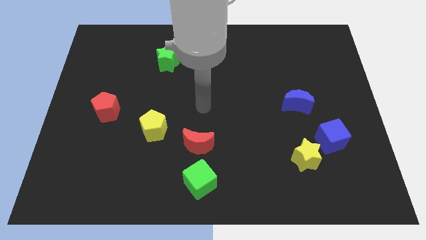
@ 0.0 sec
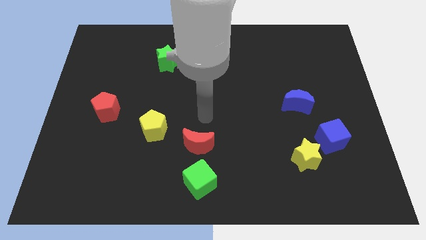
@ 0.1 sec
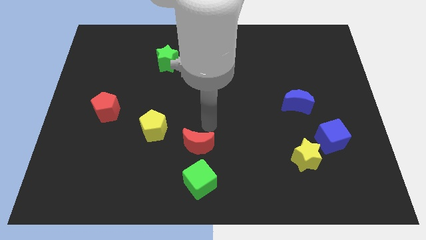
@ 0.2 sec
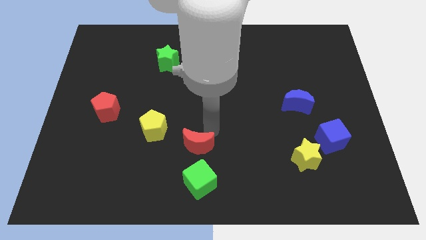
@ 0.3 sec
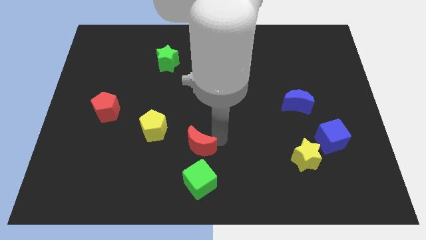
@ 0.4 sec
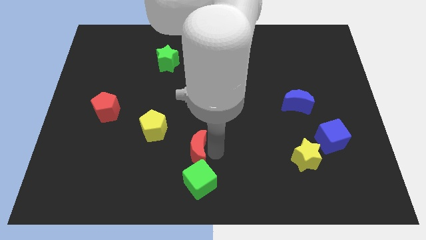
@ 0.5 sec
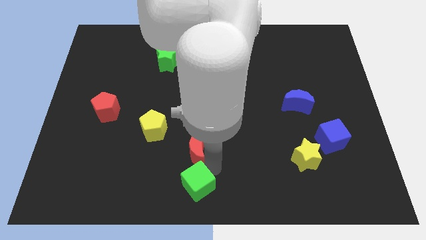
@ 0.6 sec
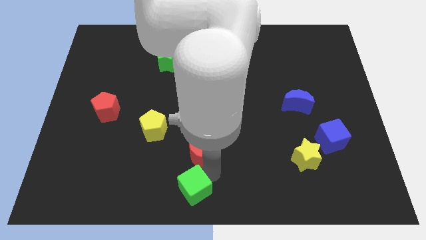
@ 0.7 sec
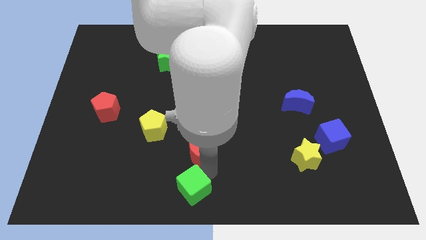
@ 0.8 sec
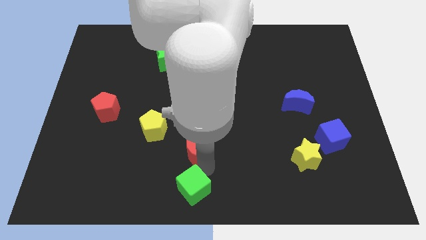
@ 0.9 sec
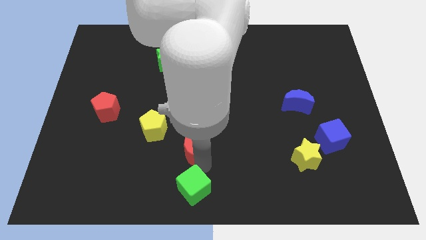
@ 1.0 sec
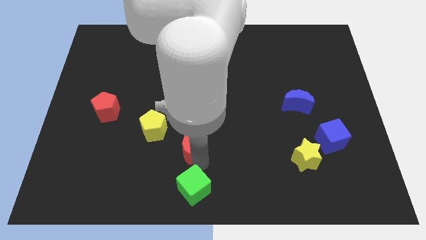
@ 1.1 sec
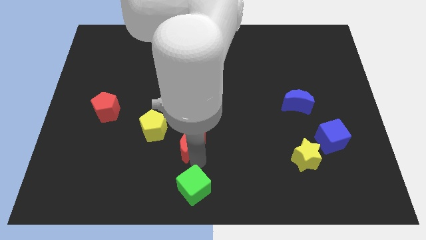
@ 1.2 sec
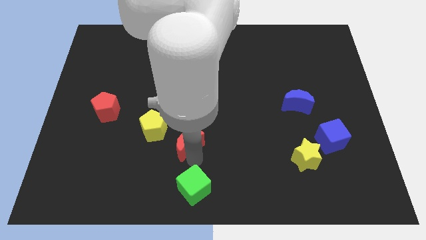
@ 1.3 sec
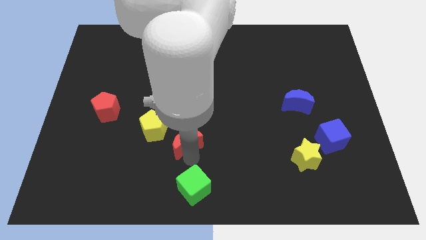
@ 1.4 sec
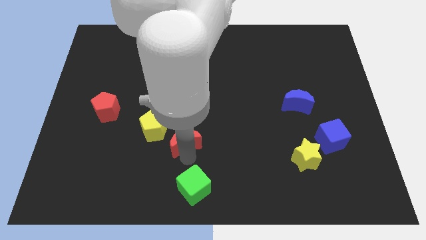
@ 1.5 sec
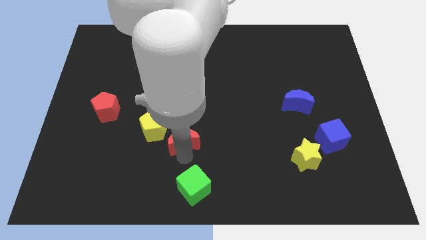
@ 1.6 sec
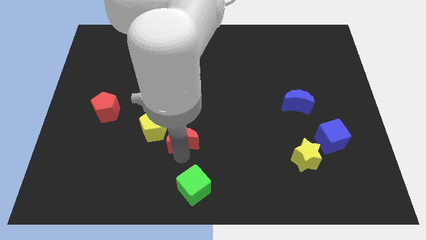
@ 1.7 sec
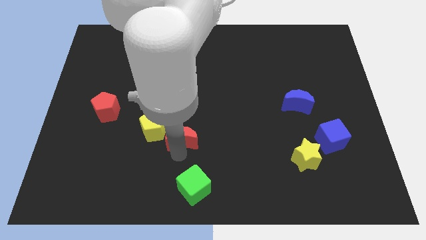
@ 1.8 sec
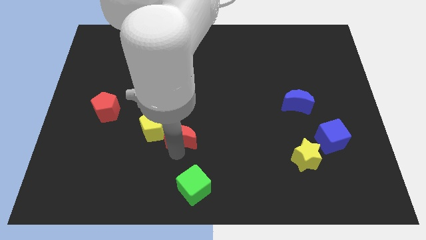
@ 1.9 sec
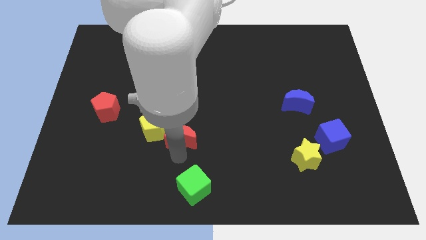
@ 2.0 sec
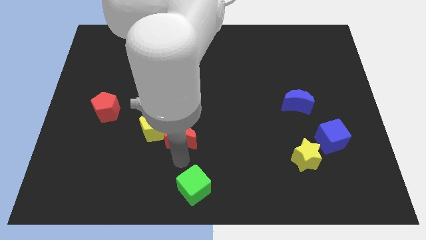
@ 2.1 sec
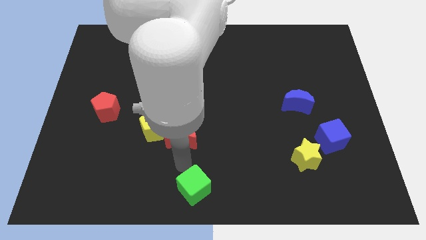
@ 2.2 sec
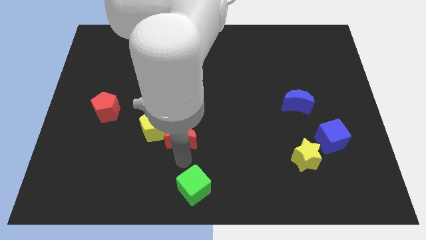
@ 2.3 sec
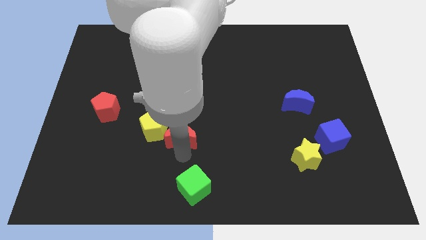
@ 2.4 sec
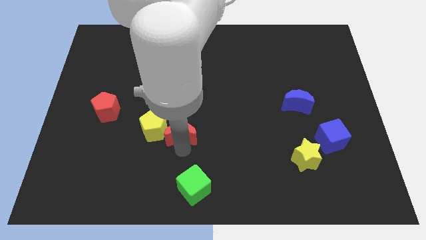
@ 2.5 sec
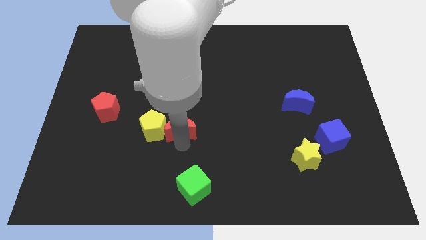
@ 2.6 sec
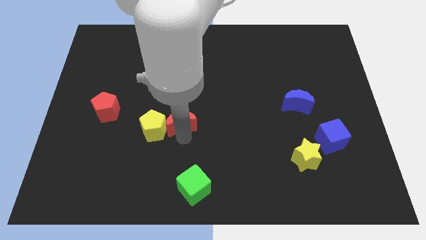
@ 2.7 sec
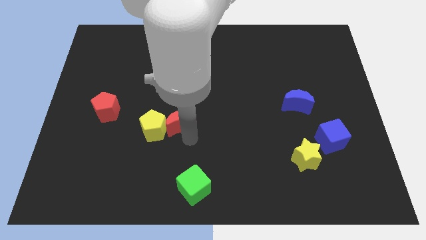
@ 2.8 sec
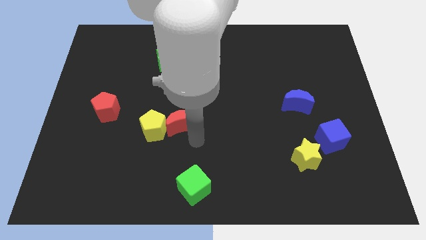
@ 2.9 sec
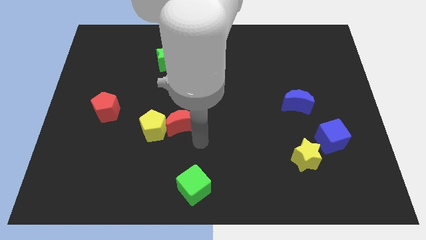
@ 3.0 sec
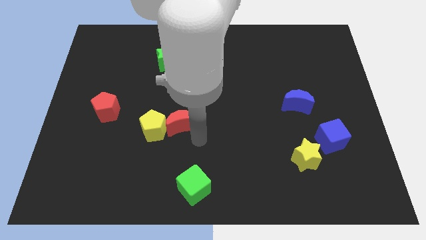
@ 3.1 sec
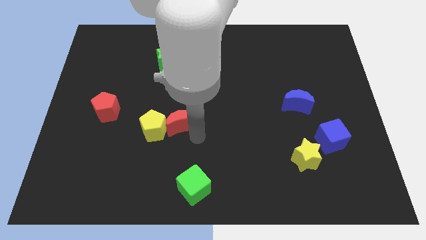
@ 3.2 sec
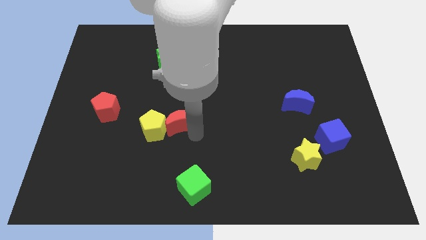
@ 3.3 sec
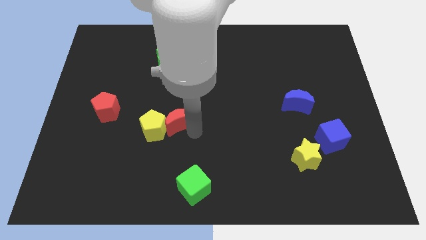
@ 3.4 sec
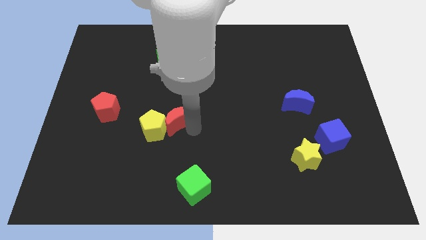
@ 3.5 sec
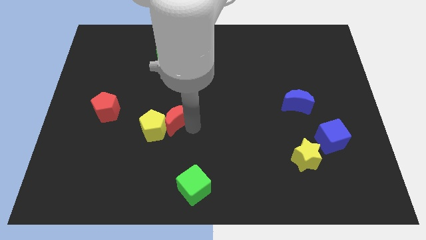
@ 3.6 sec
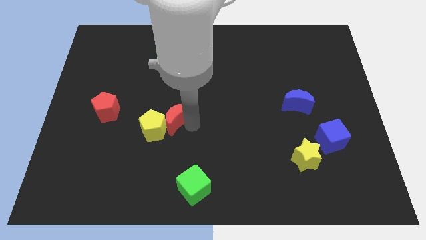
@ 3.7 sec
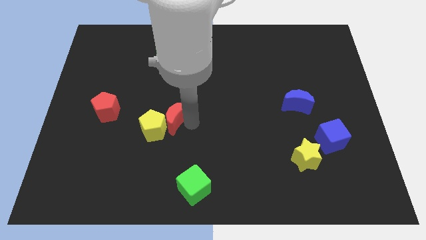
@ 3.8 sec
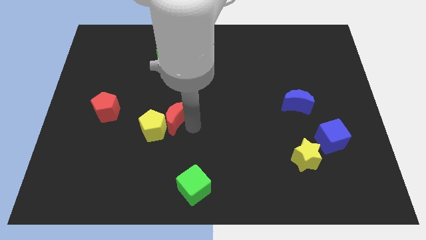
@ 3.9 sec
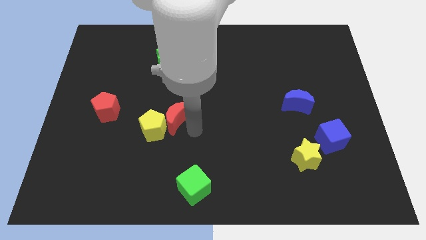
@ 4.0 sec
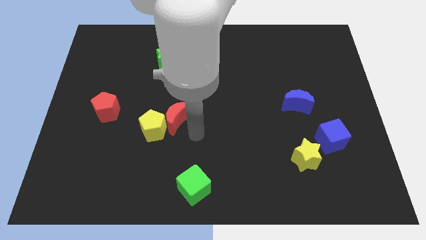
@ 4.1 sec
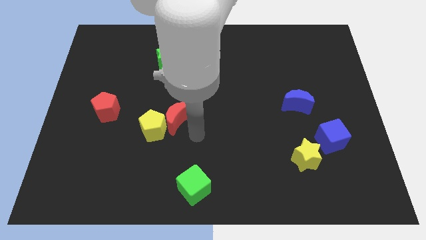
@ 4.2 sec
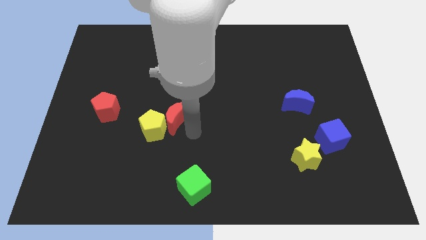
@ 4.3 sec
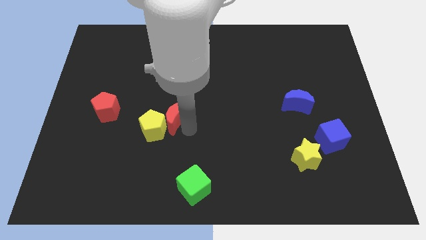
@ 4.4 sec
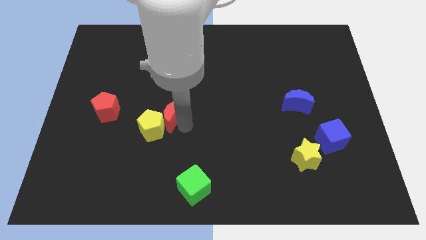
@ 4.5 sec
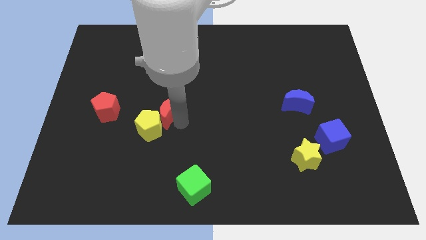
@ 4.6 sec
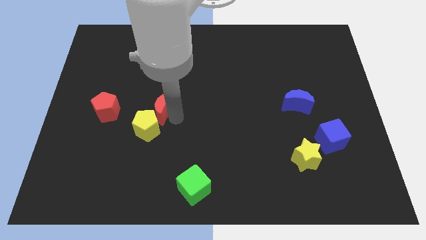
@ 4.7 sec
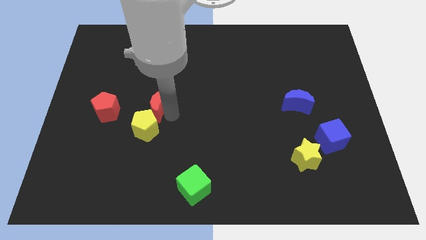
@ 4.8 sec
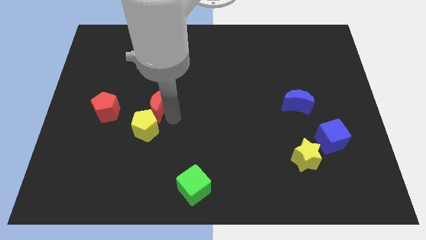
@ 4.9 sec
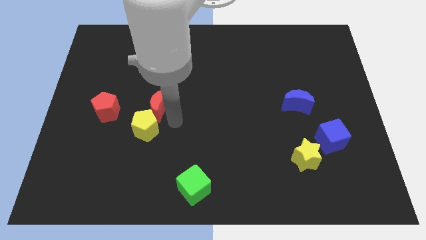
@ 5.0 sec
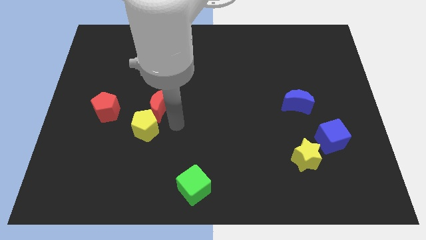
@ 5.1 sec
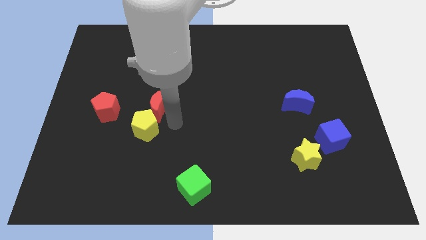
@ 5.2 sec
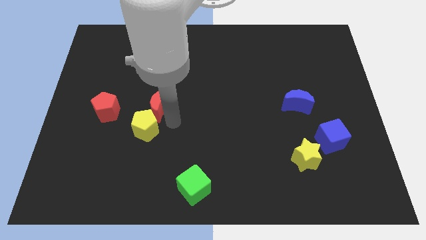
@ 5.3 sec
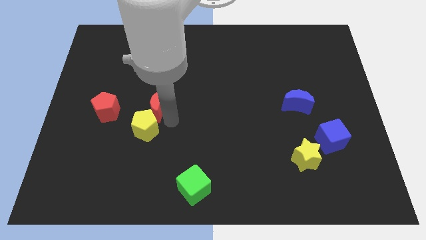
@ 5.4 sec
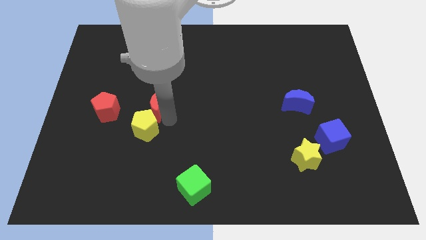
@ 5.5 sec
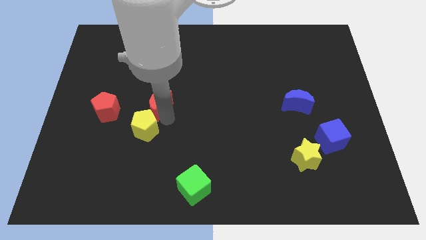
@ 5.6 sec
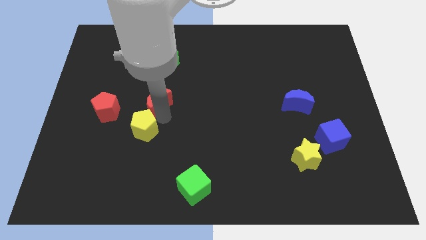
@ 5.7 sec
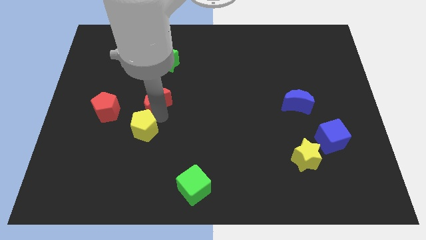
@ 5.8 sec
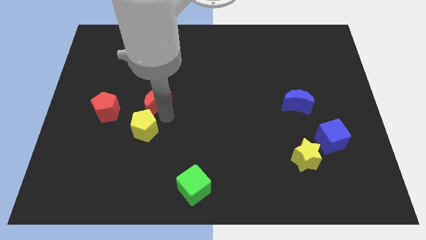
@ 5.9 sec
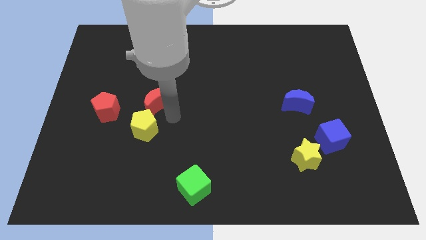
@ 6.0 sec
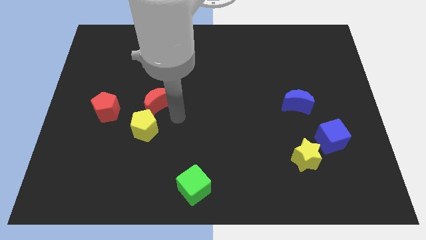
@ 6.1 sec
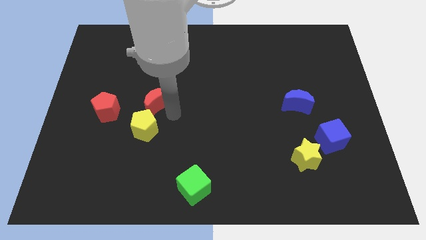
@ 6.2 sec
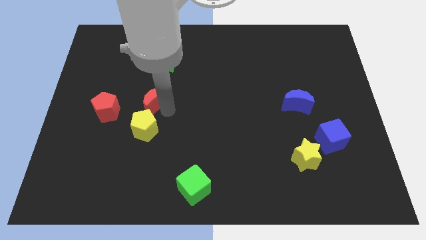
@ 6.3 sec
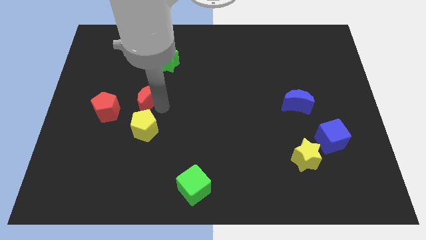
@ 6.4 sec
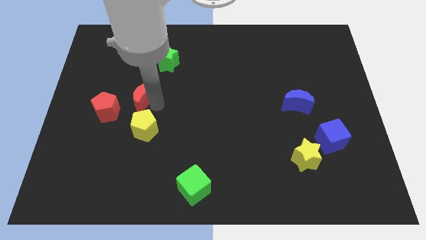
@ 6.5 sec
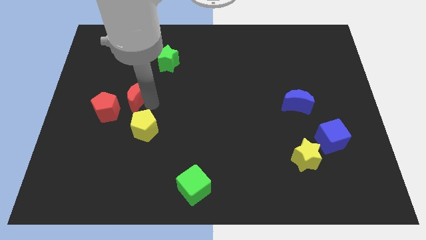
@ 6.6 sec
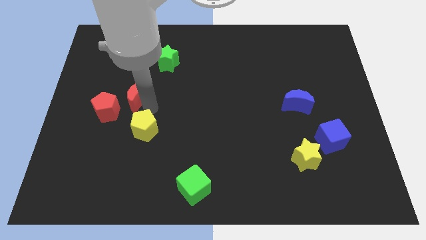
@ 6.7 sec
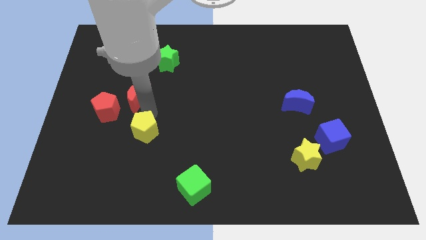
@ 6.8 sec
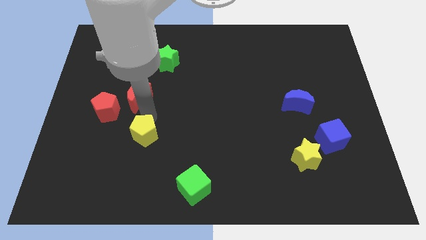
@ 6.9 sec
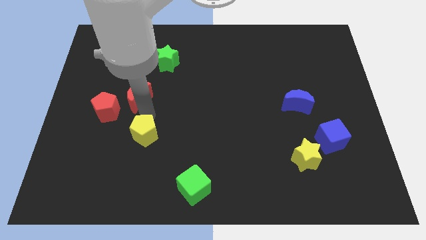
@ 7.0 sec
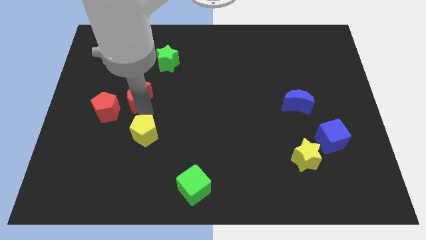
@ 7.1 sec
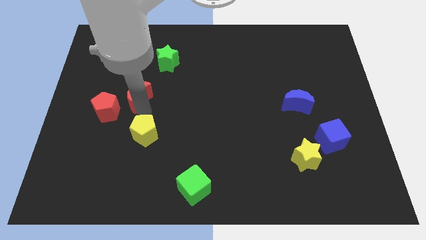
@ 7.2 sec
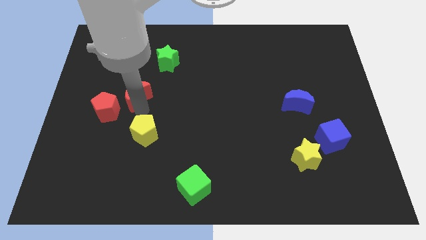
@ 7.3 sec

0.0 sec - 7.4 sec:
push the red moon diagonally up and left

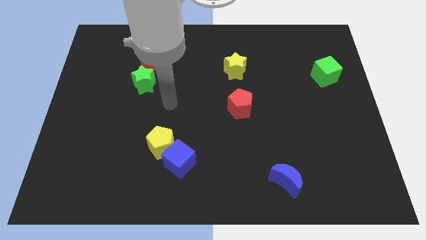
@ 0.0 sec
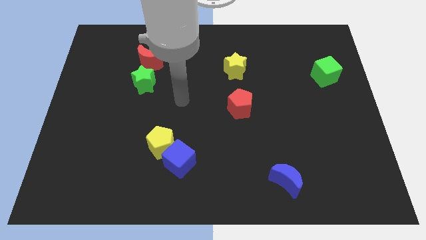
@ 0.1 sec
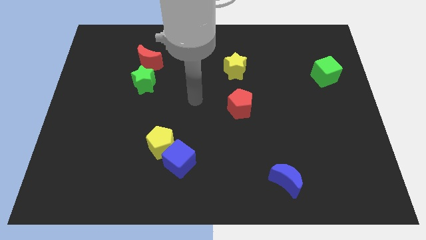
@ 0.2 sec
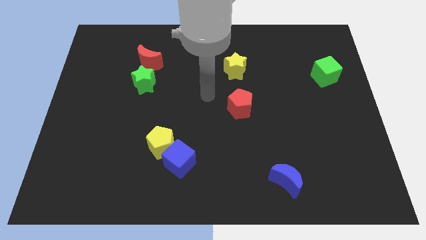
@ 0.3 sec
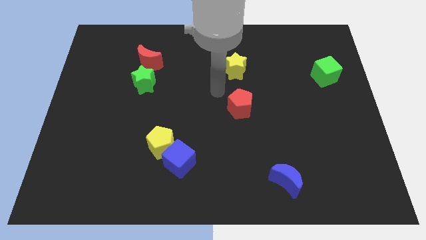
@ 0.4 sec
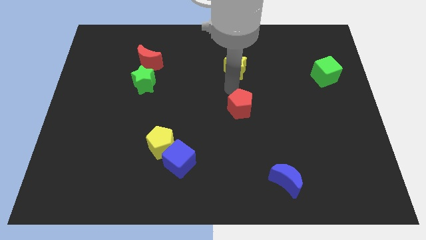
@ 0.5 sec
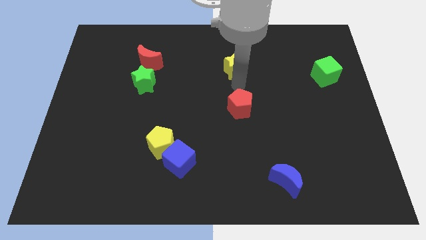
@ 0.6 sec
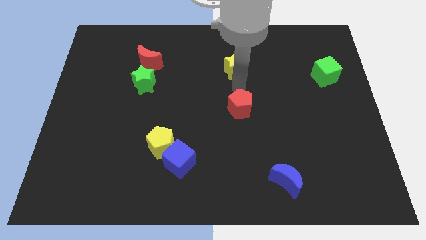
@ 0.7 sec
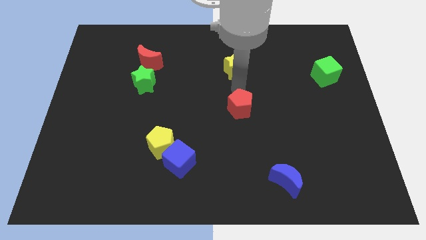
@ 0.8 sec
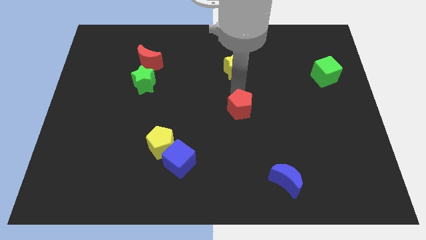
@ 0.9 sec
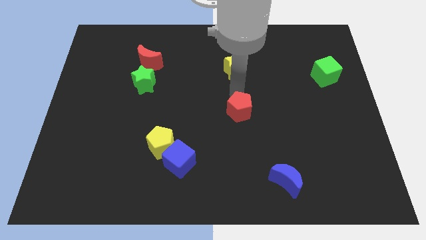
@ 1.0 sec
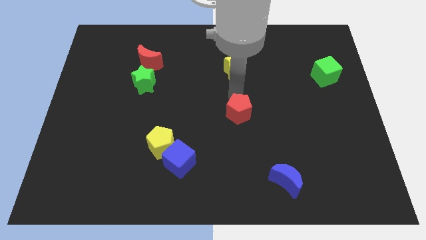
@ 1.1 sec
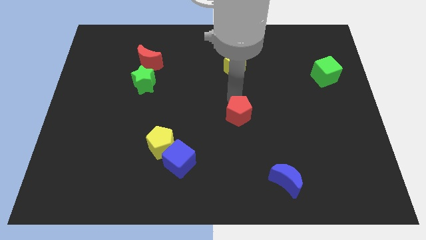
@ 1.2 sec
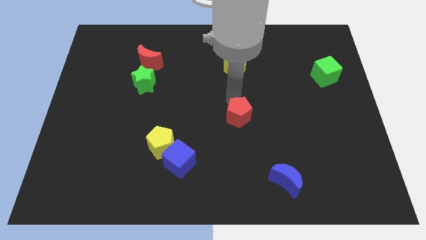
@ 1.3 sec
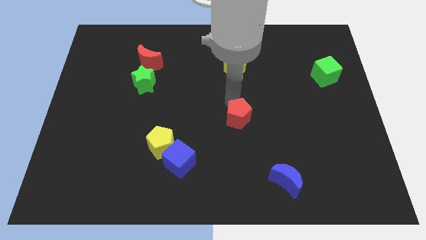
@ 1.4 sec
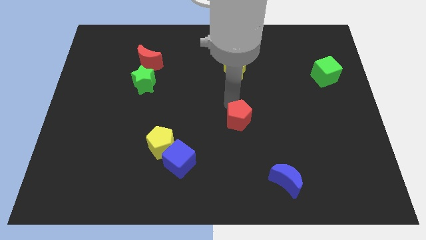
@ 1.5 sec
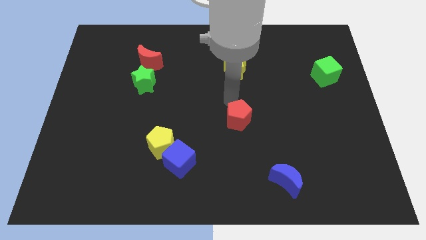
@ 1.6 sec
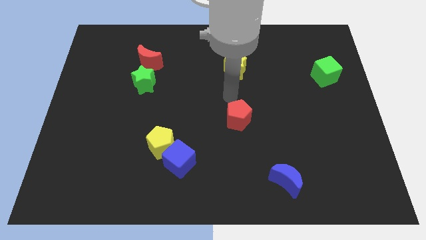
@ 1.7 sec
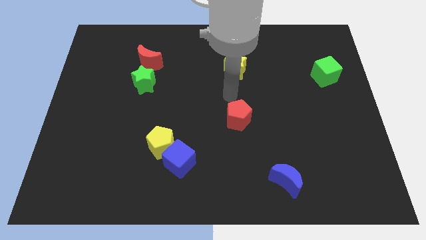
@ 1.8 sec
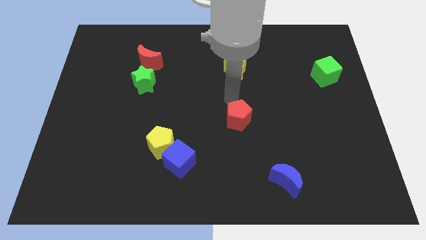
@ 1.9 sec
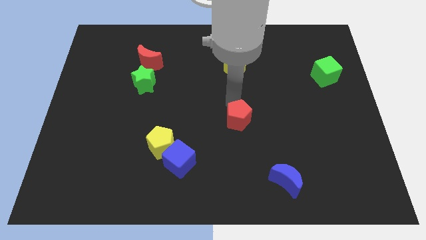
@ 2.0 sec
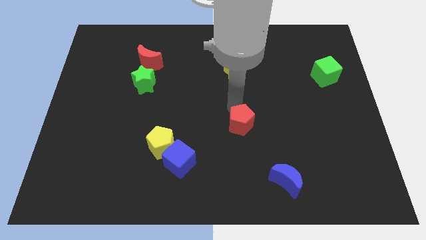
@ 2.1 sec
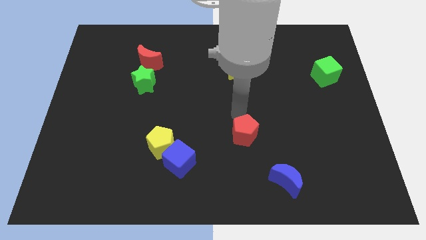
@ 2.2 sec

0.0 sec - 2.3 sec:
move the red pentagon down somewhat
